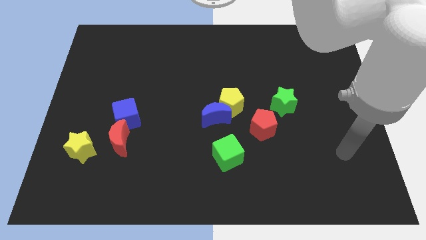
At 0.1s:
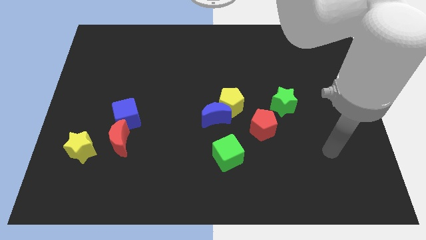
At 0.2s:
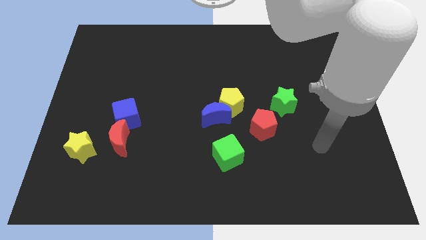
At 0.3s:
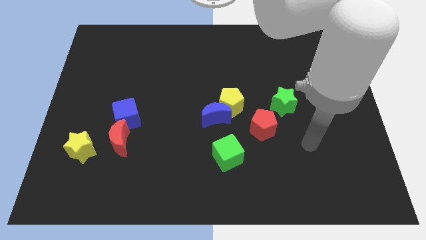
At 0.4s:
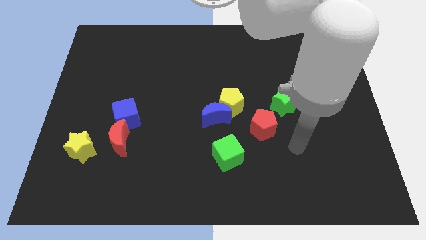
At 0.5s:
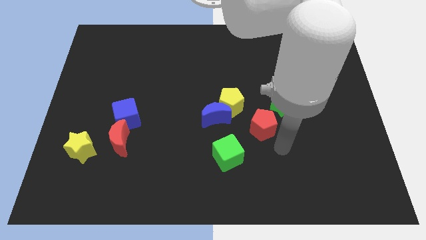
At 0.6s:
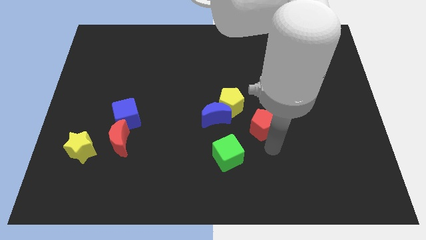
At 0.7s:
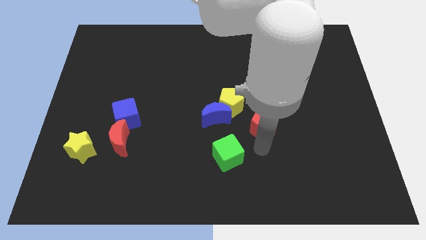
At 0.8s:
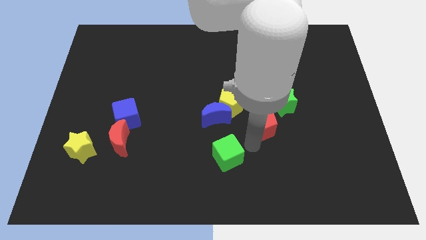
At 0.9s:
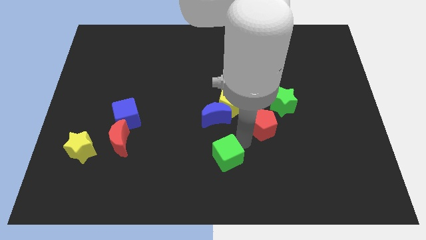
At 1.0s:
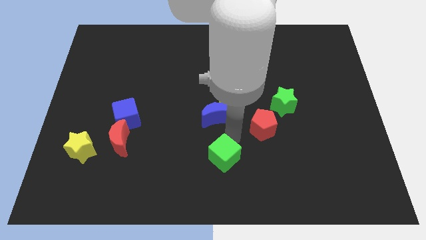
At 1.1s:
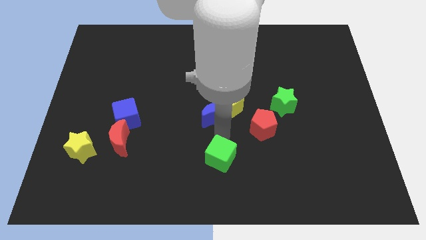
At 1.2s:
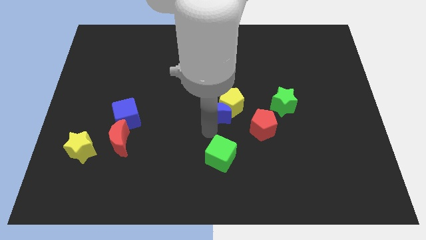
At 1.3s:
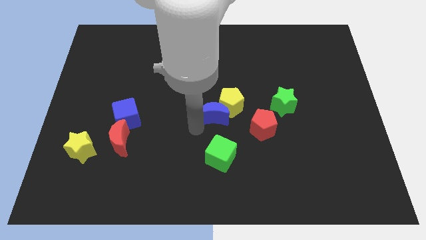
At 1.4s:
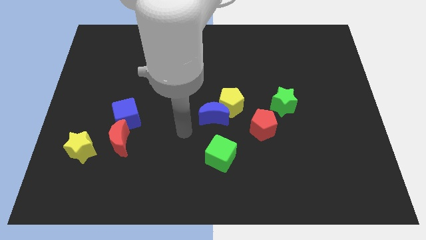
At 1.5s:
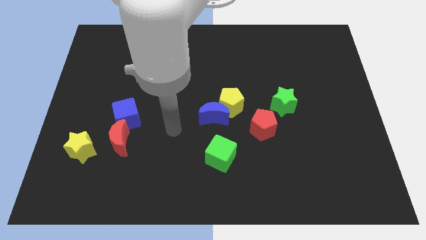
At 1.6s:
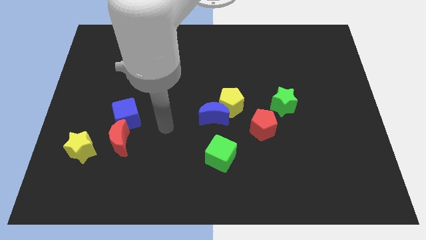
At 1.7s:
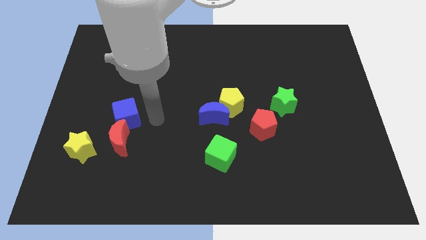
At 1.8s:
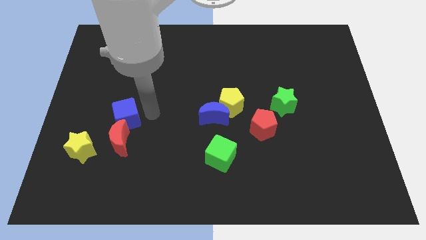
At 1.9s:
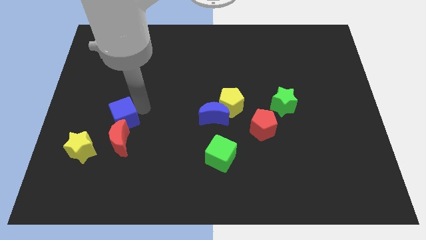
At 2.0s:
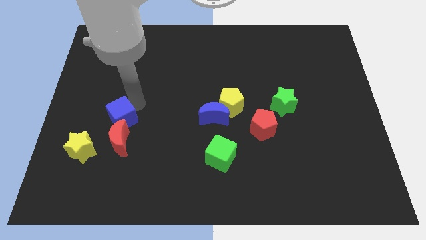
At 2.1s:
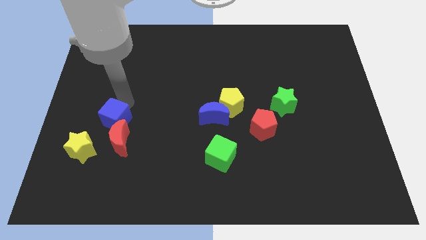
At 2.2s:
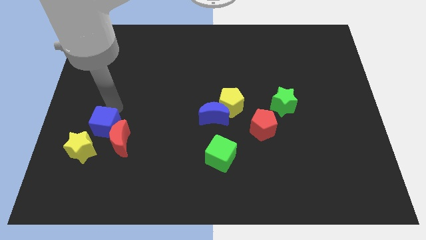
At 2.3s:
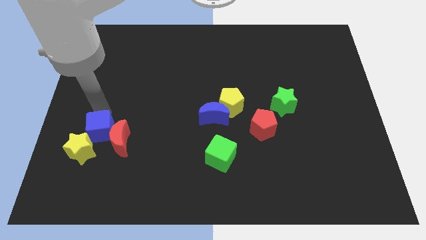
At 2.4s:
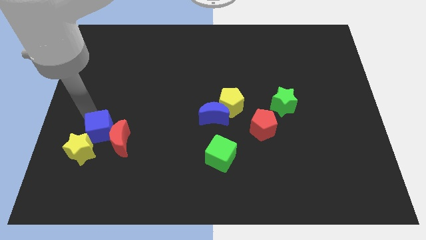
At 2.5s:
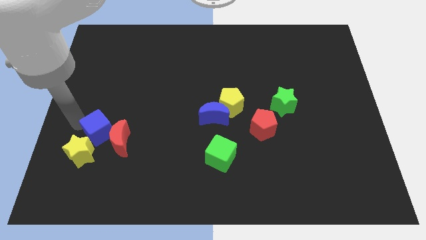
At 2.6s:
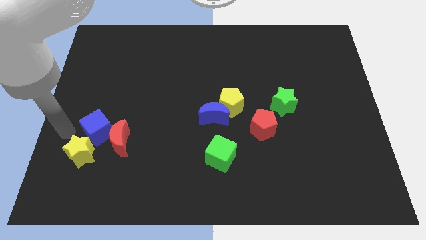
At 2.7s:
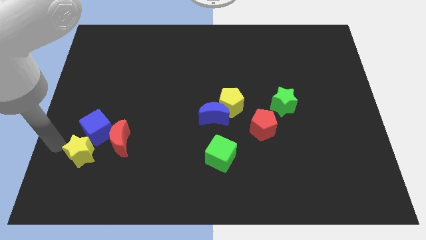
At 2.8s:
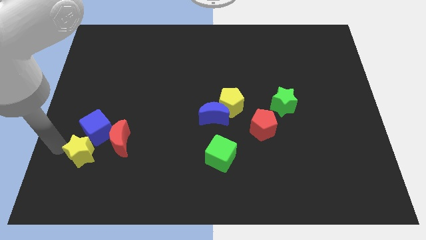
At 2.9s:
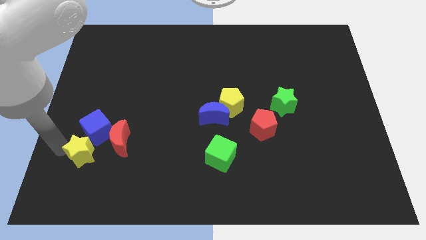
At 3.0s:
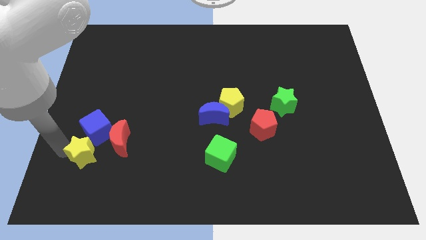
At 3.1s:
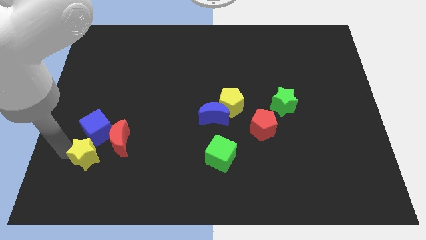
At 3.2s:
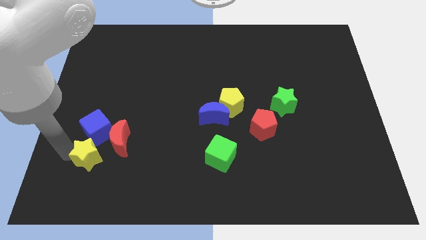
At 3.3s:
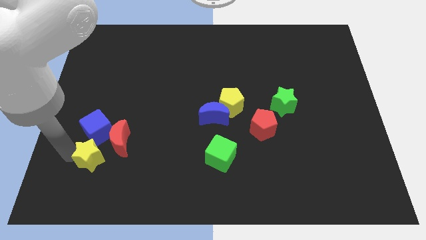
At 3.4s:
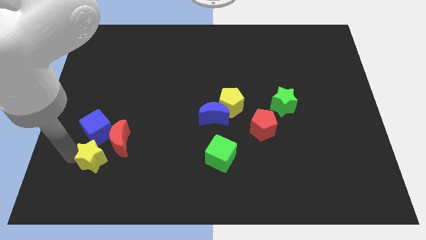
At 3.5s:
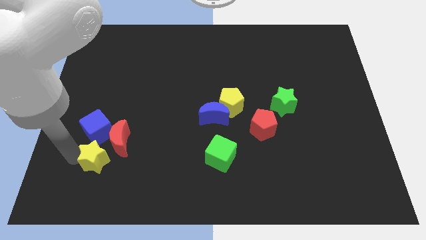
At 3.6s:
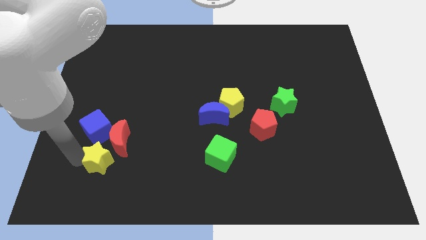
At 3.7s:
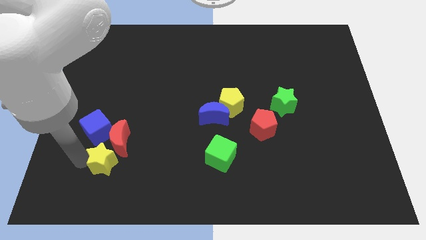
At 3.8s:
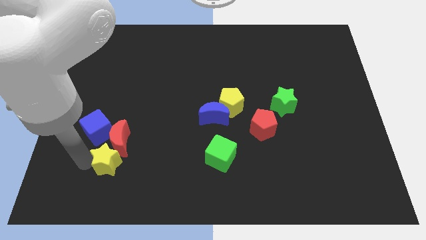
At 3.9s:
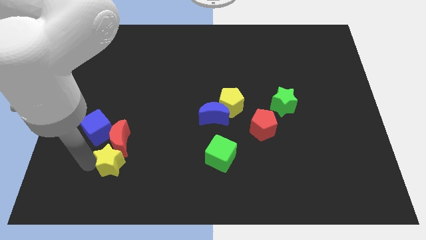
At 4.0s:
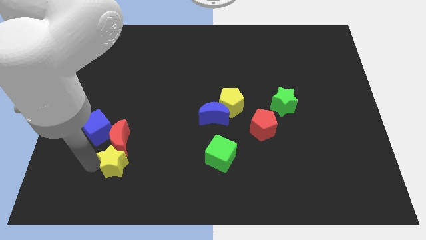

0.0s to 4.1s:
move the yellow star to the right somewhat

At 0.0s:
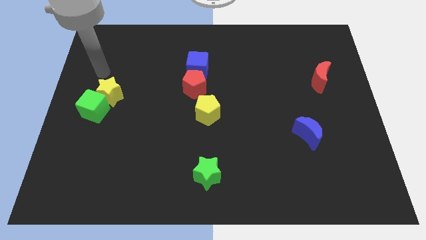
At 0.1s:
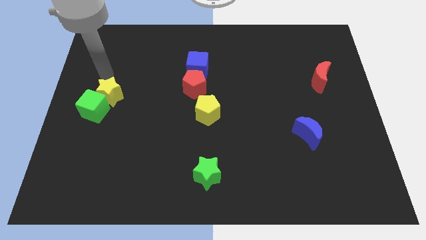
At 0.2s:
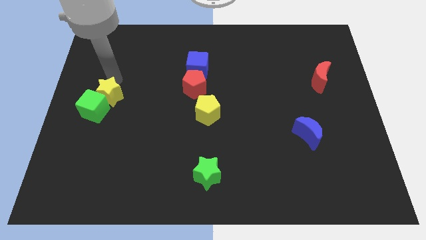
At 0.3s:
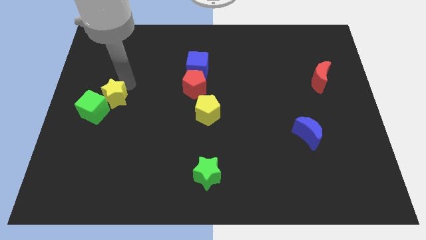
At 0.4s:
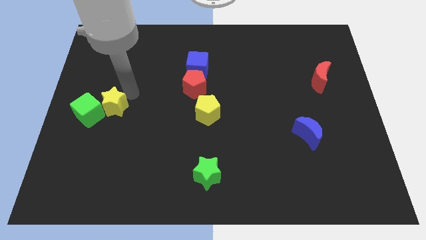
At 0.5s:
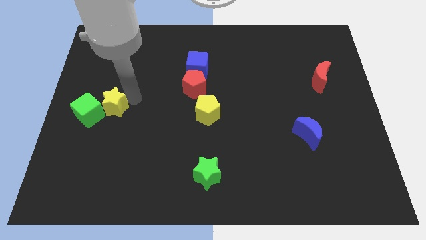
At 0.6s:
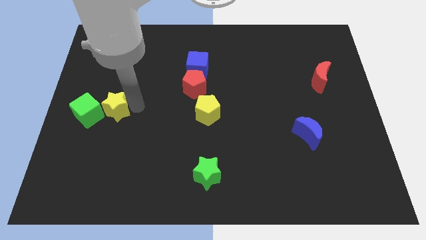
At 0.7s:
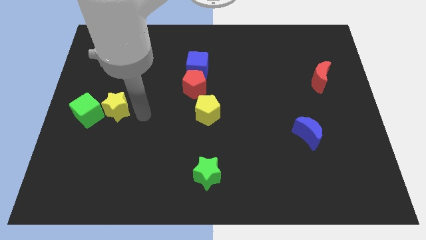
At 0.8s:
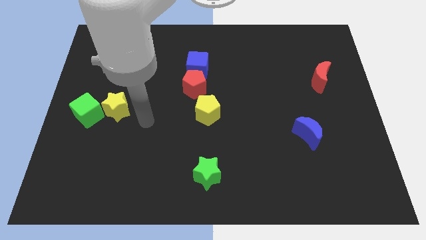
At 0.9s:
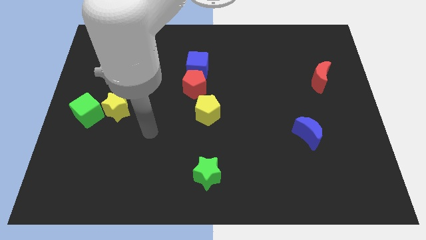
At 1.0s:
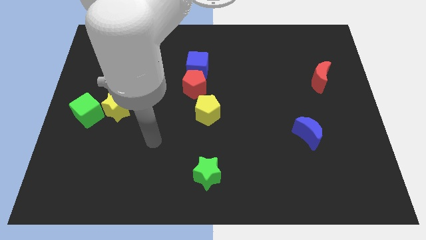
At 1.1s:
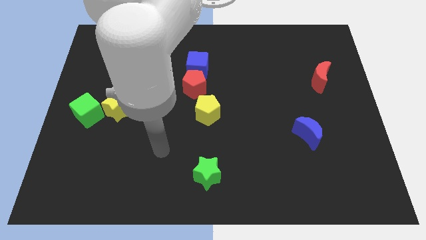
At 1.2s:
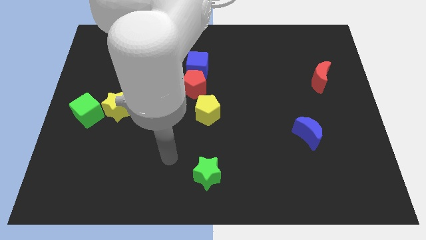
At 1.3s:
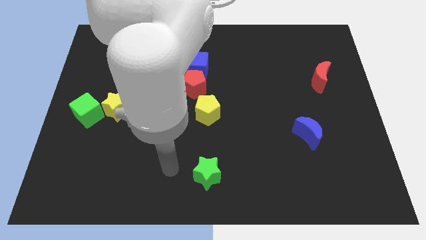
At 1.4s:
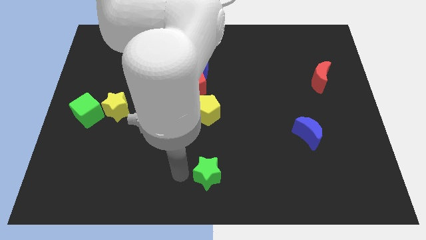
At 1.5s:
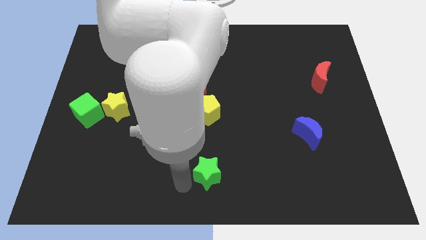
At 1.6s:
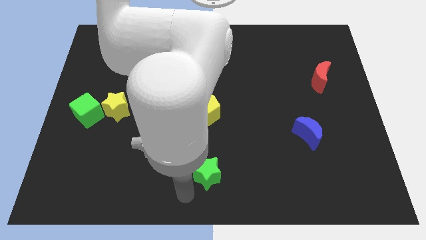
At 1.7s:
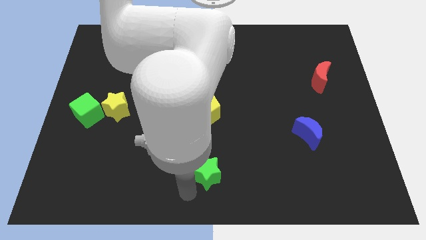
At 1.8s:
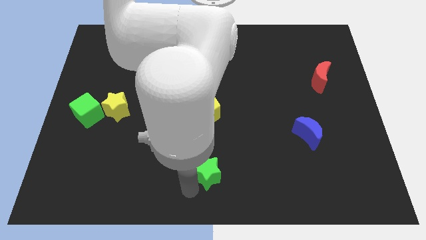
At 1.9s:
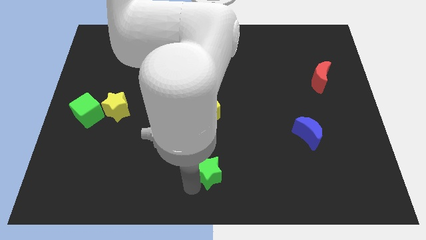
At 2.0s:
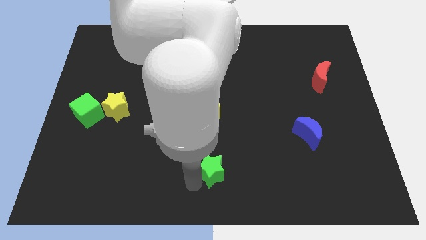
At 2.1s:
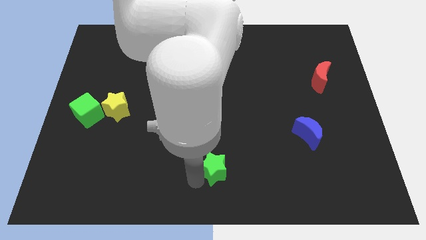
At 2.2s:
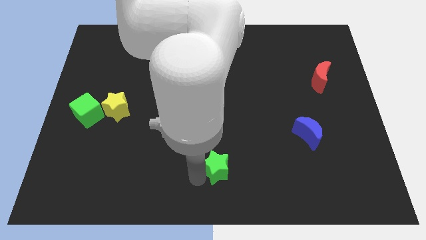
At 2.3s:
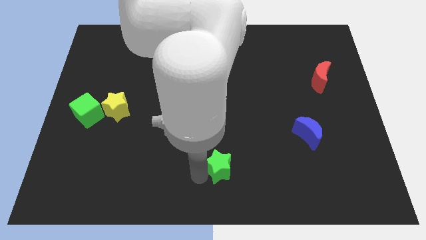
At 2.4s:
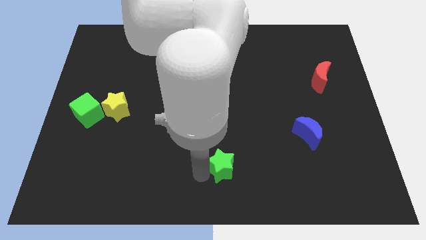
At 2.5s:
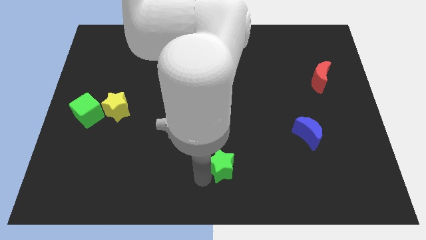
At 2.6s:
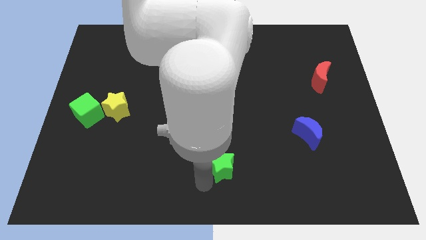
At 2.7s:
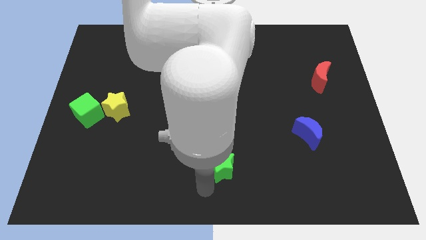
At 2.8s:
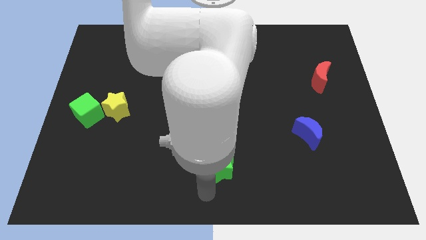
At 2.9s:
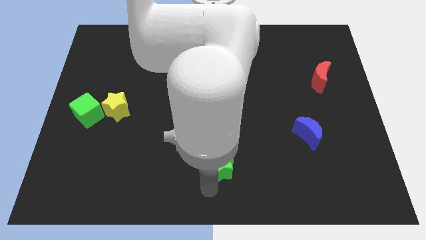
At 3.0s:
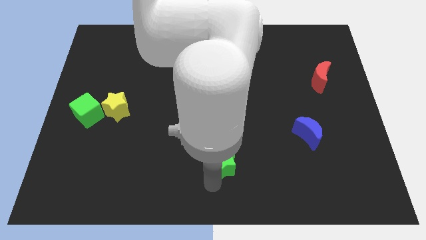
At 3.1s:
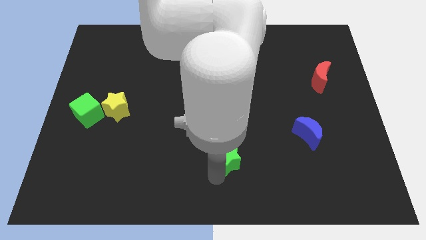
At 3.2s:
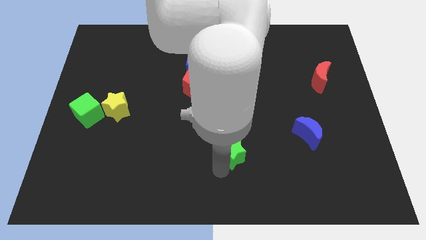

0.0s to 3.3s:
slightly slide the green star upwards and then right

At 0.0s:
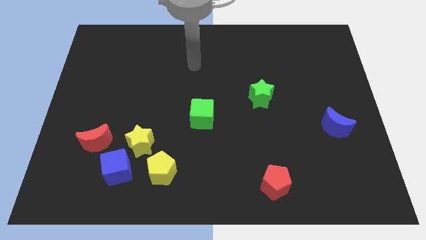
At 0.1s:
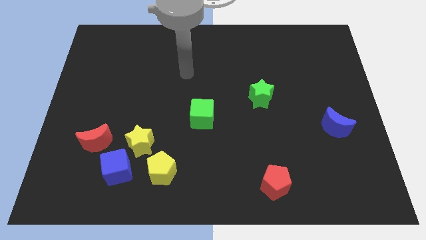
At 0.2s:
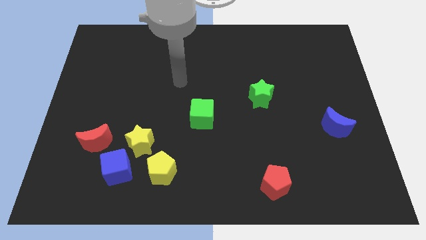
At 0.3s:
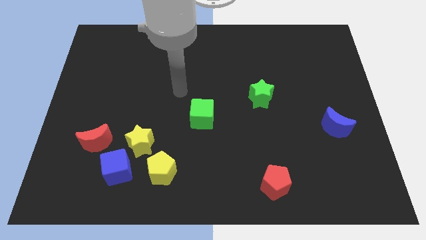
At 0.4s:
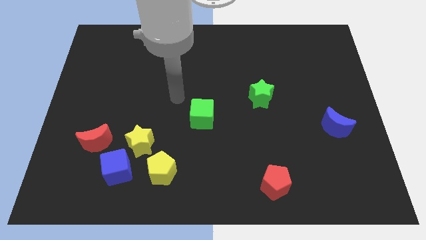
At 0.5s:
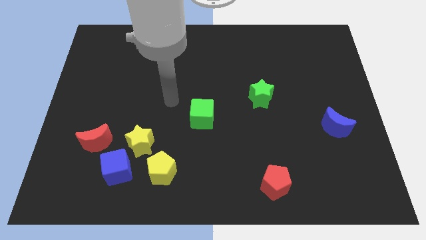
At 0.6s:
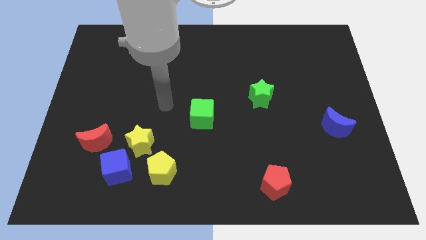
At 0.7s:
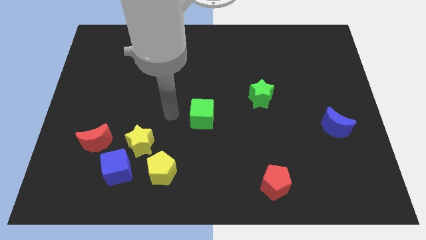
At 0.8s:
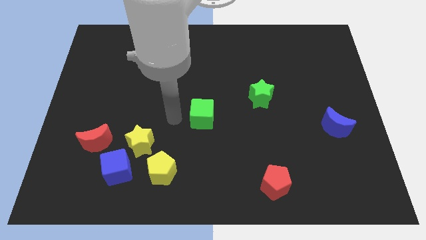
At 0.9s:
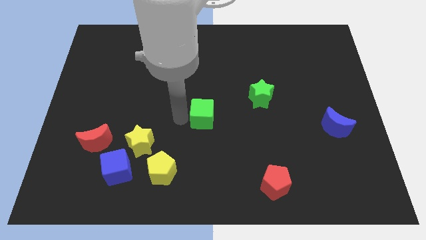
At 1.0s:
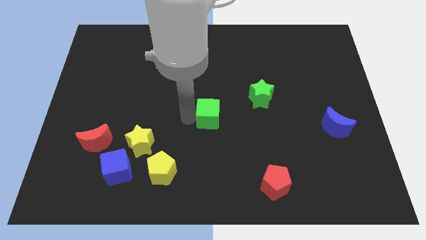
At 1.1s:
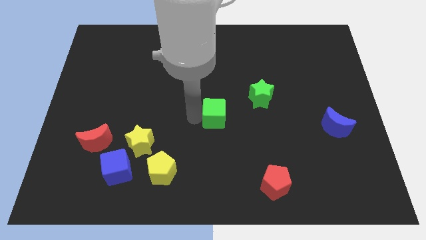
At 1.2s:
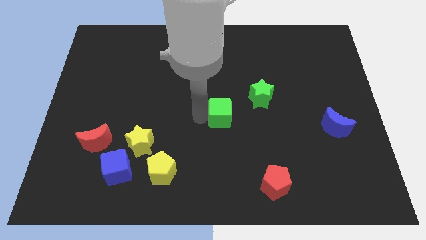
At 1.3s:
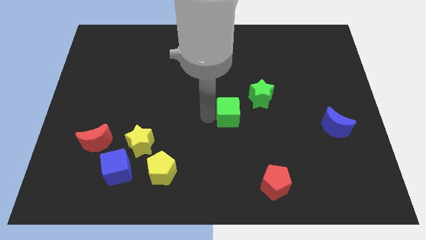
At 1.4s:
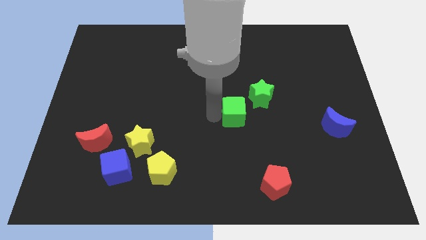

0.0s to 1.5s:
push the green cube somewhat right
